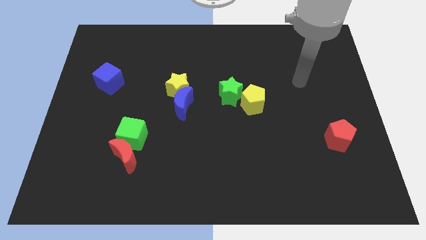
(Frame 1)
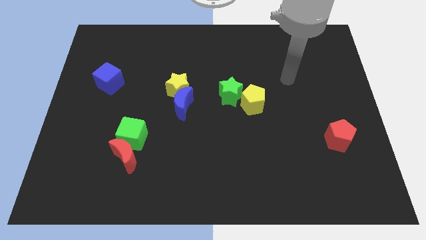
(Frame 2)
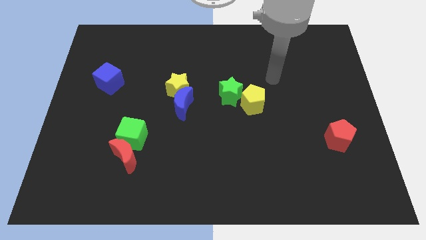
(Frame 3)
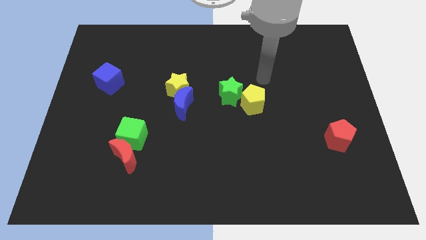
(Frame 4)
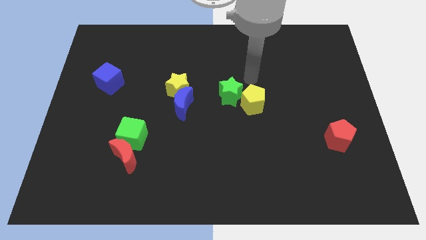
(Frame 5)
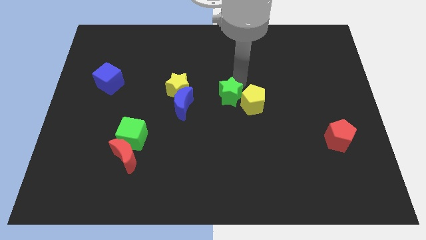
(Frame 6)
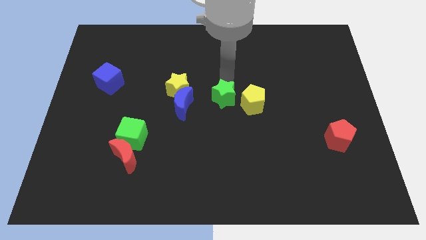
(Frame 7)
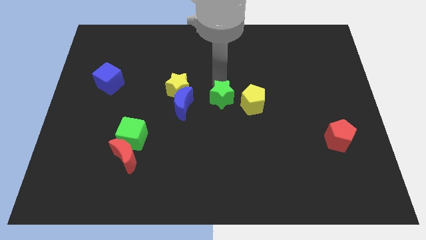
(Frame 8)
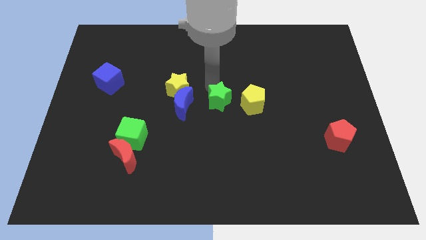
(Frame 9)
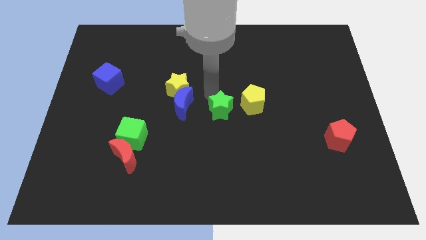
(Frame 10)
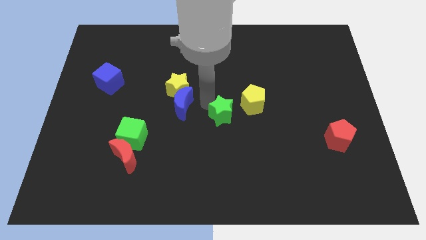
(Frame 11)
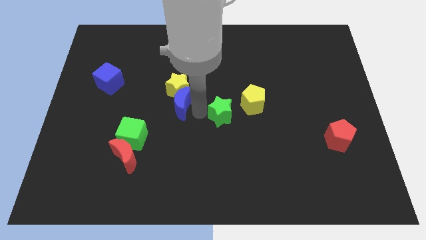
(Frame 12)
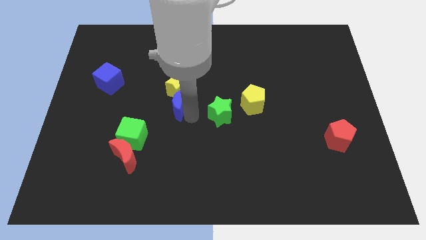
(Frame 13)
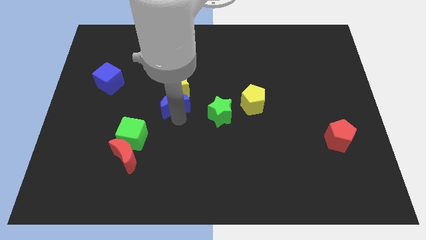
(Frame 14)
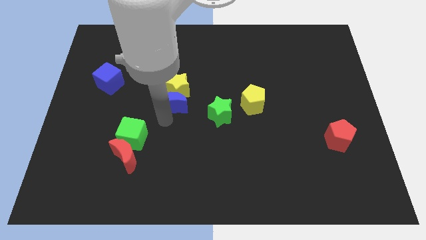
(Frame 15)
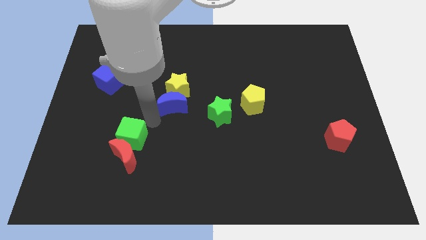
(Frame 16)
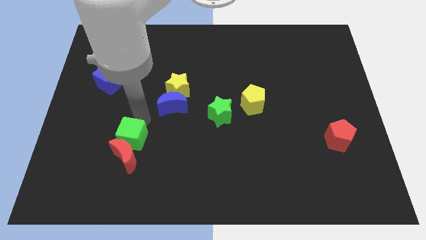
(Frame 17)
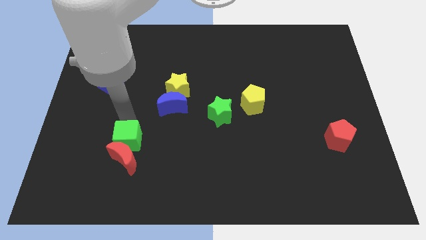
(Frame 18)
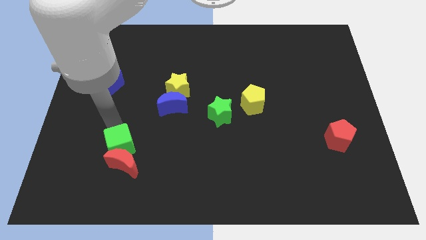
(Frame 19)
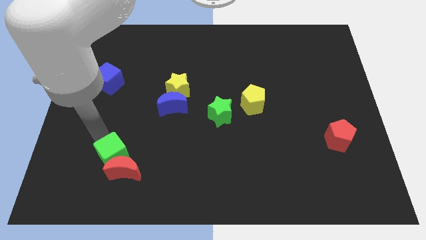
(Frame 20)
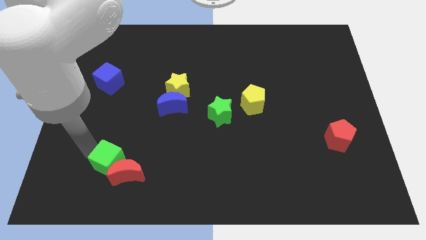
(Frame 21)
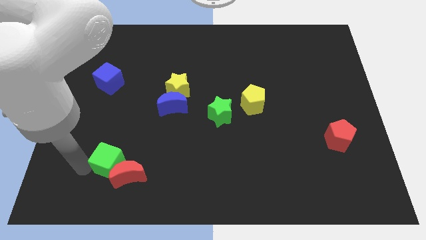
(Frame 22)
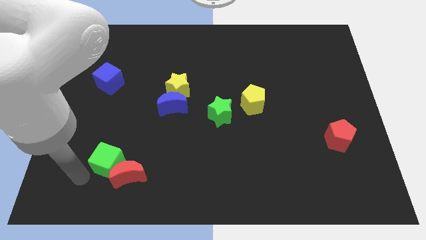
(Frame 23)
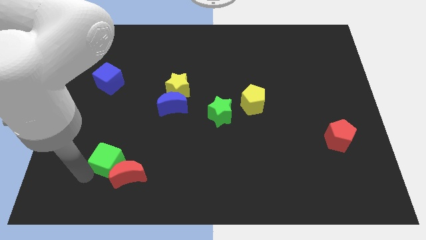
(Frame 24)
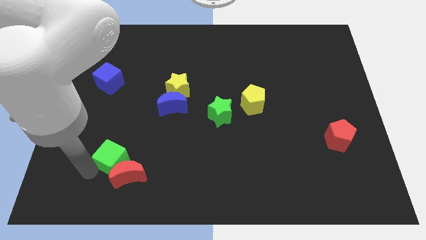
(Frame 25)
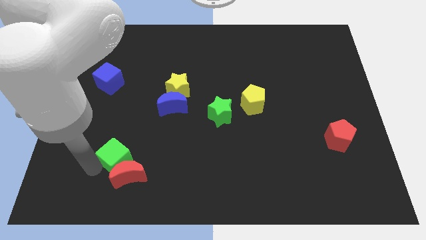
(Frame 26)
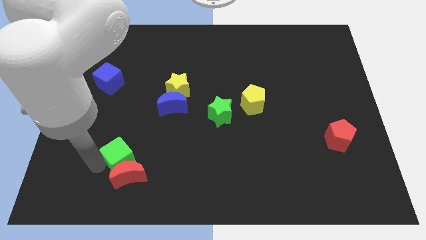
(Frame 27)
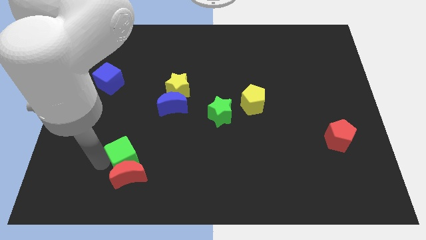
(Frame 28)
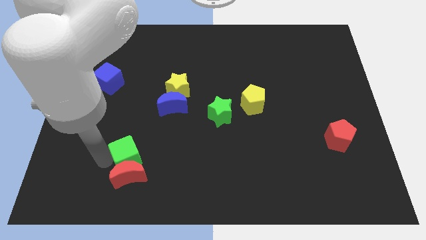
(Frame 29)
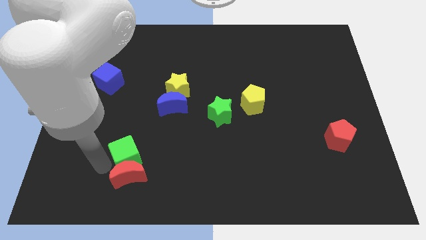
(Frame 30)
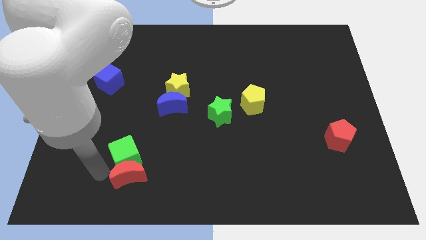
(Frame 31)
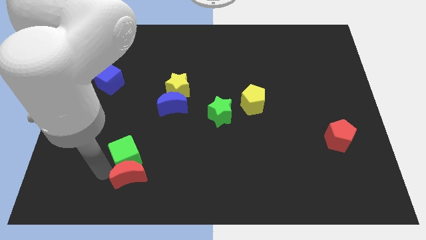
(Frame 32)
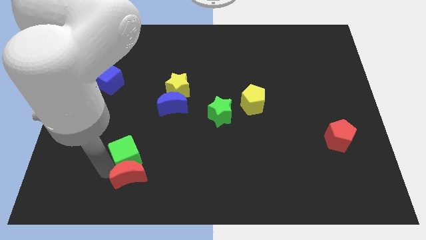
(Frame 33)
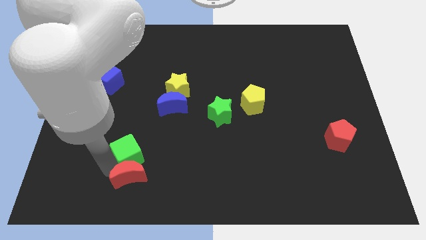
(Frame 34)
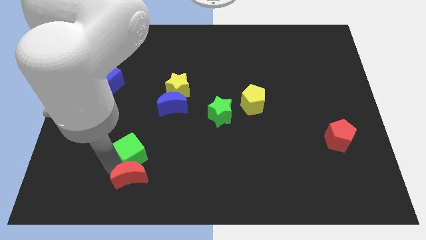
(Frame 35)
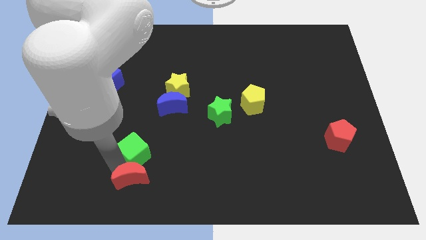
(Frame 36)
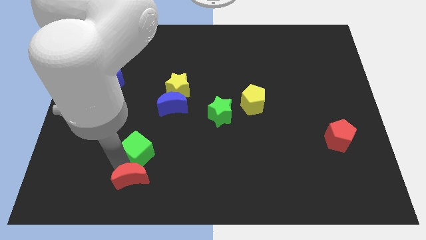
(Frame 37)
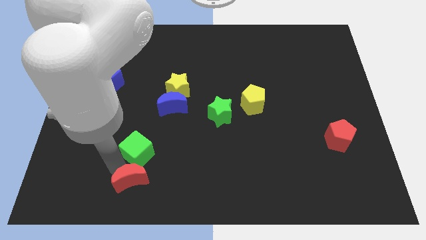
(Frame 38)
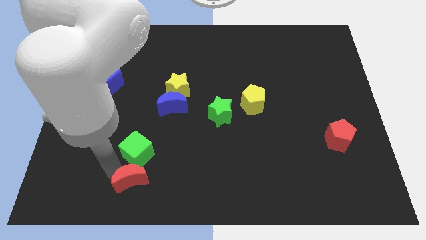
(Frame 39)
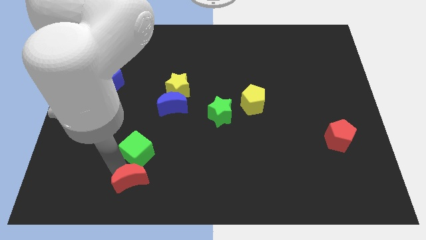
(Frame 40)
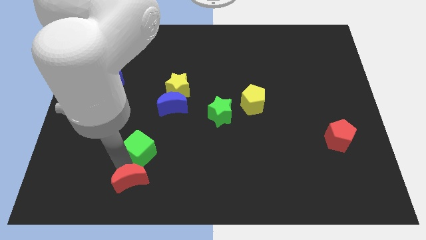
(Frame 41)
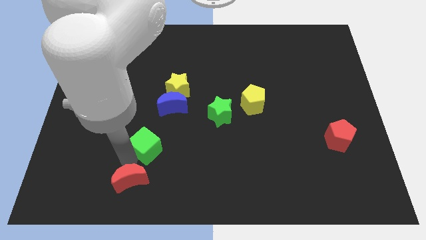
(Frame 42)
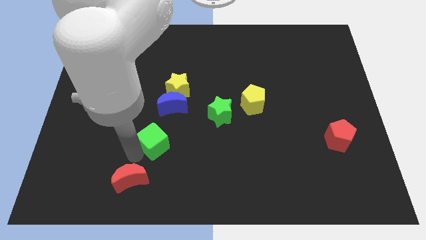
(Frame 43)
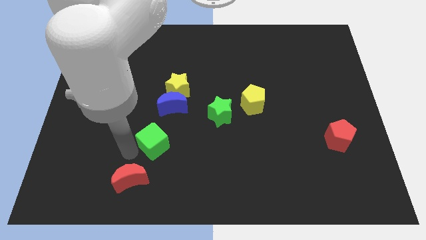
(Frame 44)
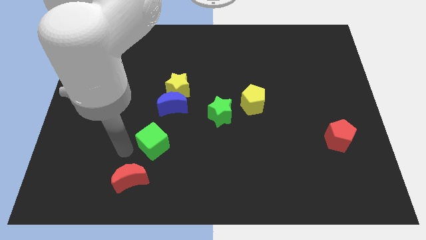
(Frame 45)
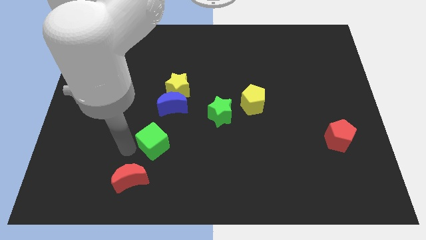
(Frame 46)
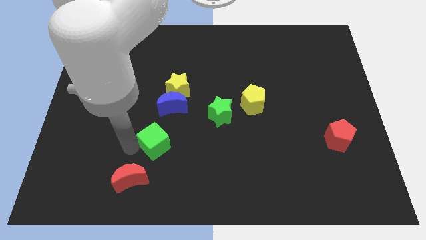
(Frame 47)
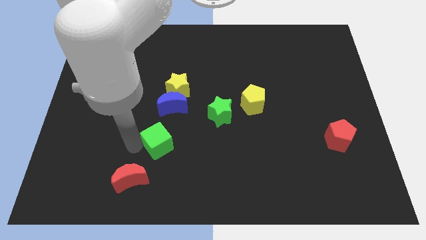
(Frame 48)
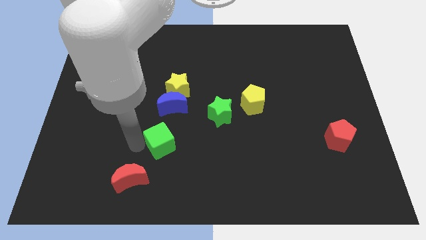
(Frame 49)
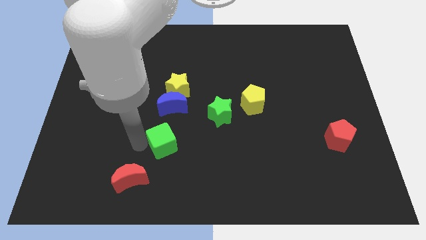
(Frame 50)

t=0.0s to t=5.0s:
slide the green cube right a little bit

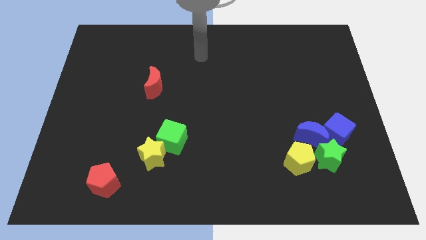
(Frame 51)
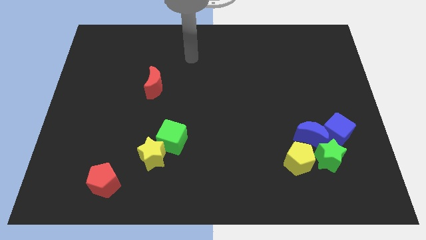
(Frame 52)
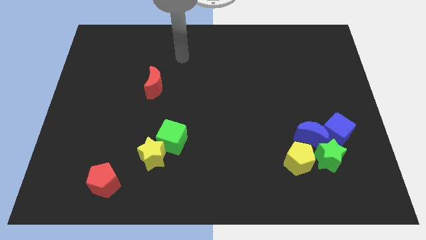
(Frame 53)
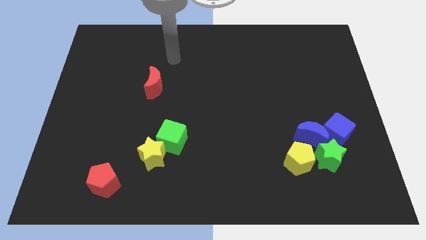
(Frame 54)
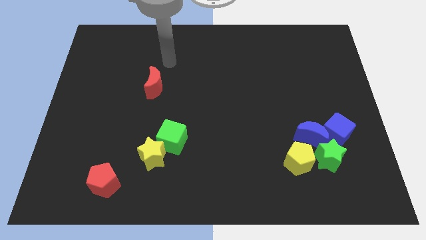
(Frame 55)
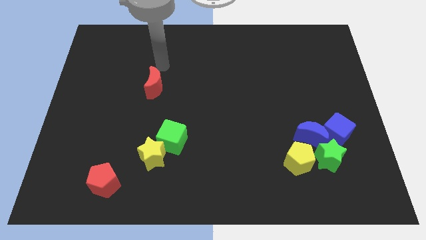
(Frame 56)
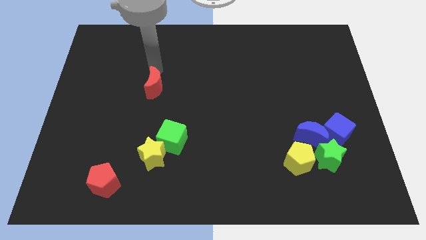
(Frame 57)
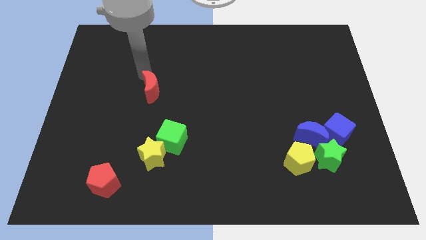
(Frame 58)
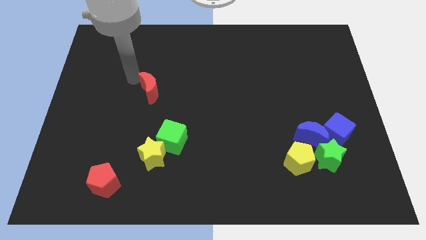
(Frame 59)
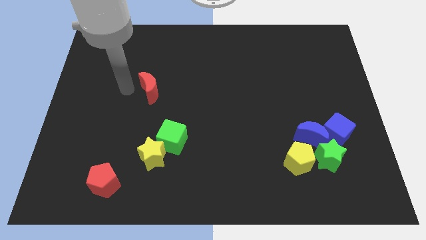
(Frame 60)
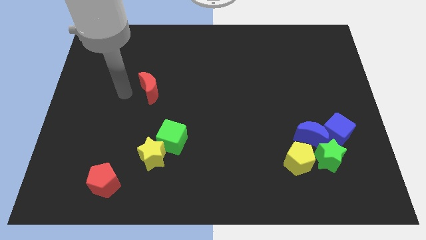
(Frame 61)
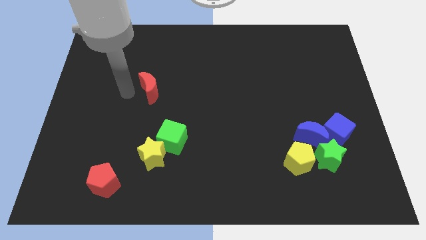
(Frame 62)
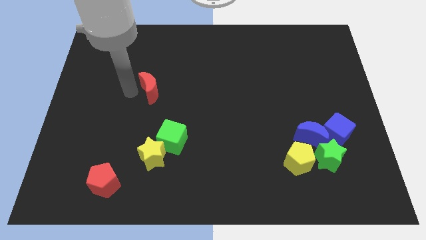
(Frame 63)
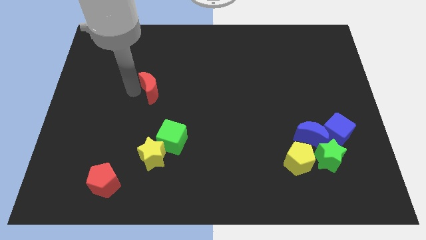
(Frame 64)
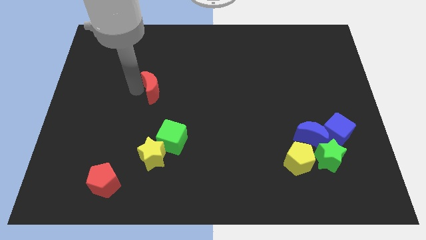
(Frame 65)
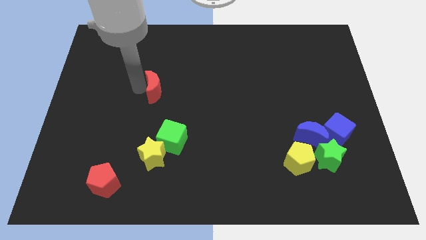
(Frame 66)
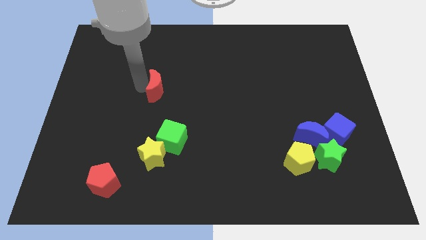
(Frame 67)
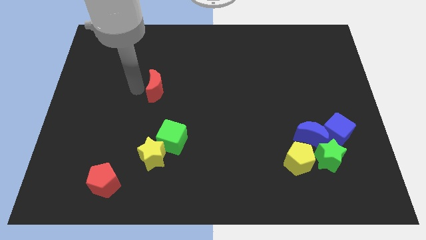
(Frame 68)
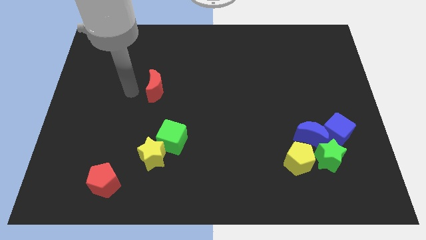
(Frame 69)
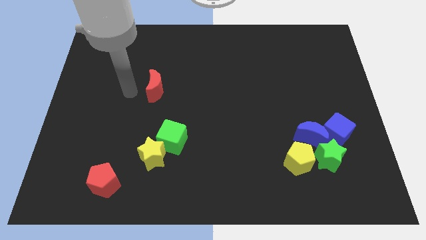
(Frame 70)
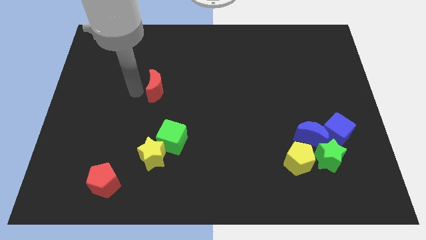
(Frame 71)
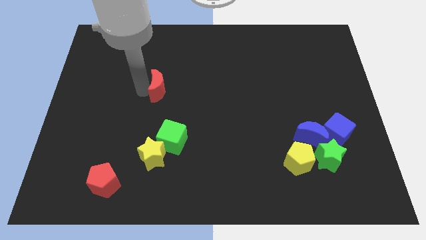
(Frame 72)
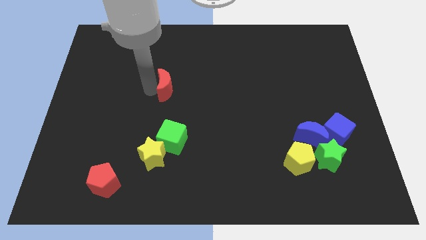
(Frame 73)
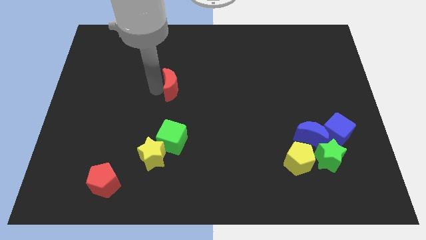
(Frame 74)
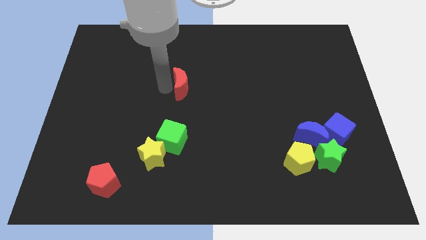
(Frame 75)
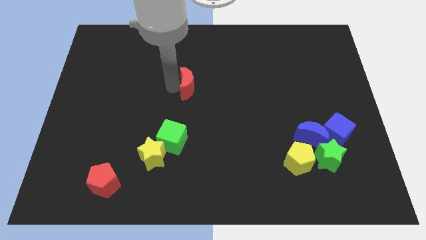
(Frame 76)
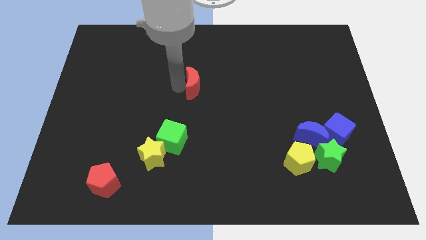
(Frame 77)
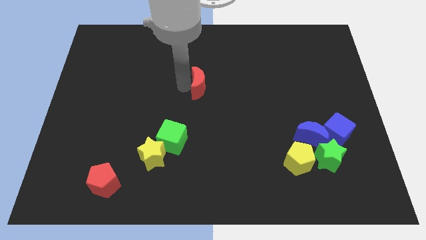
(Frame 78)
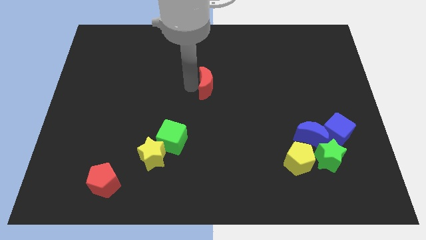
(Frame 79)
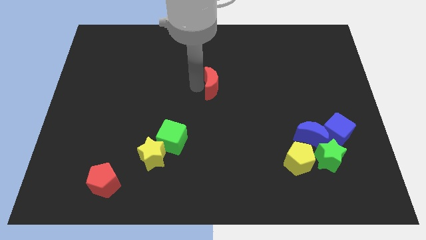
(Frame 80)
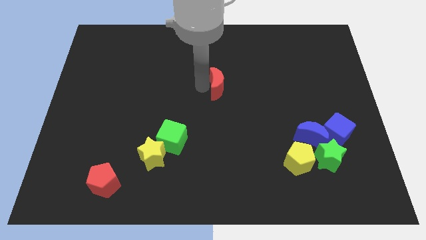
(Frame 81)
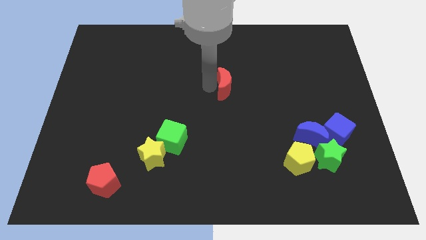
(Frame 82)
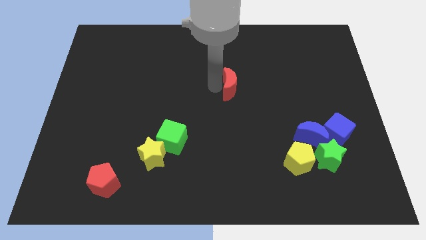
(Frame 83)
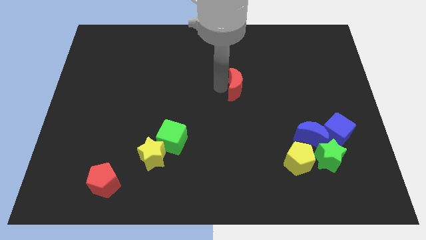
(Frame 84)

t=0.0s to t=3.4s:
push the red moon right
